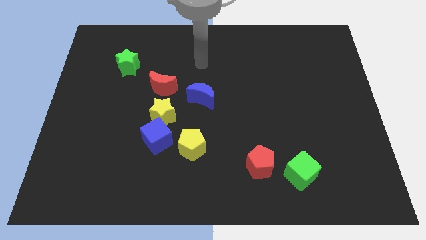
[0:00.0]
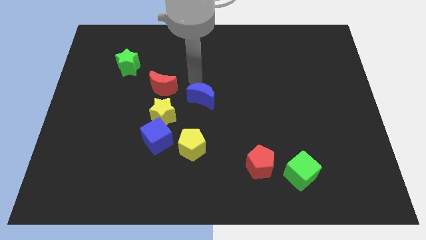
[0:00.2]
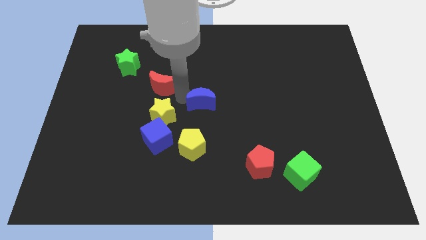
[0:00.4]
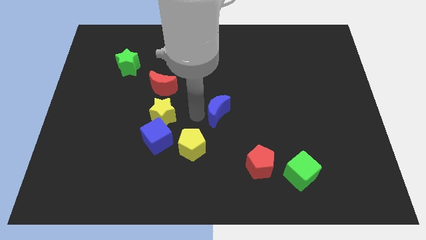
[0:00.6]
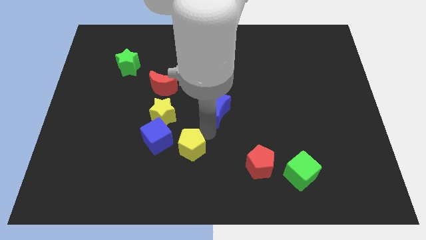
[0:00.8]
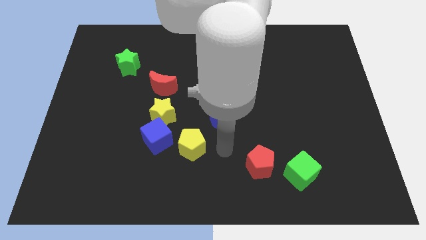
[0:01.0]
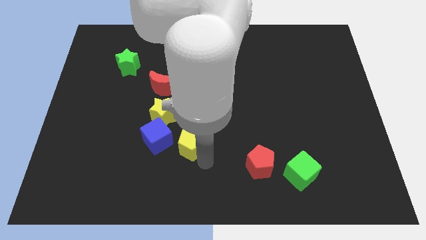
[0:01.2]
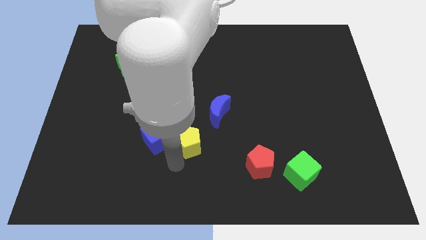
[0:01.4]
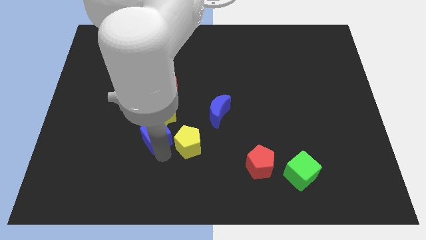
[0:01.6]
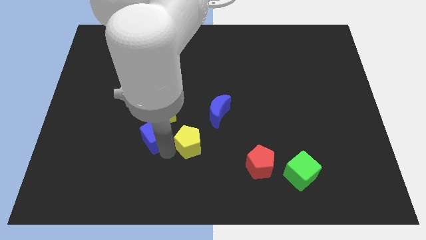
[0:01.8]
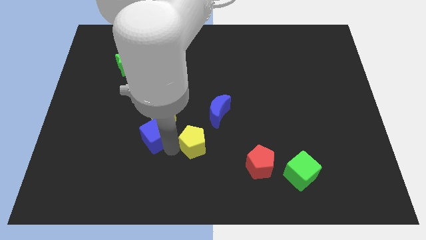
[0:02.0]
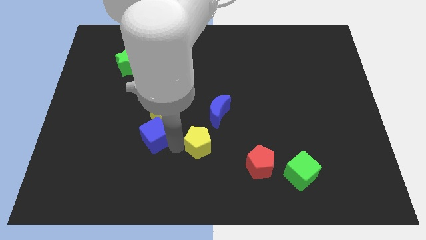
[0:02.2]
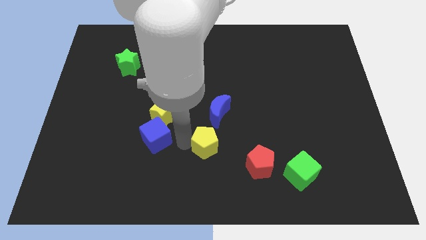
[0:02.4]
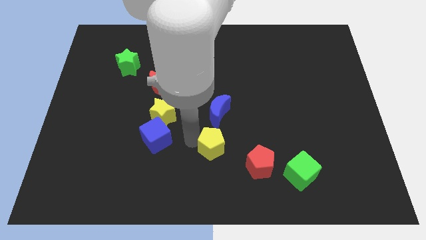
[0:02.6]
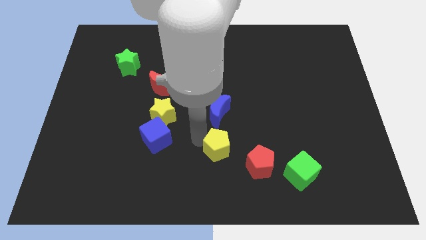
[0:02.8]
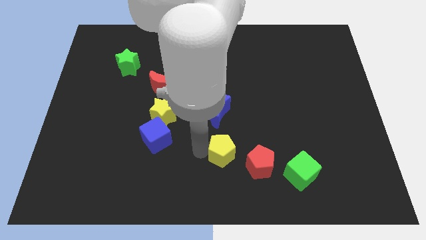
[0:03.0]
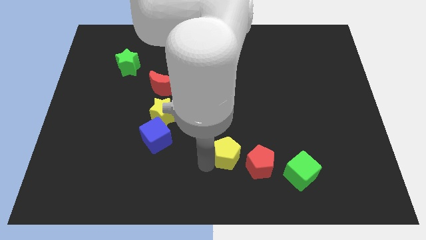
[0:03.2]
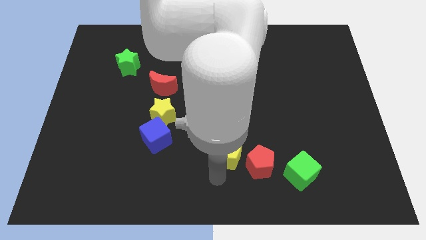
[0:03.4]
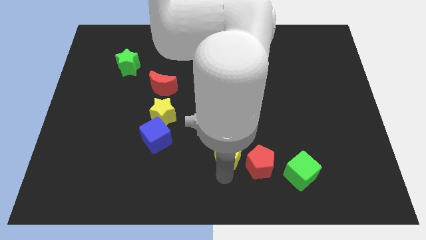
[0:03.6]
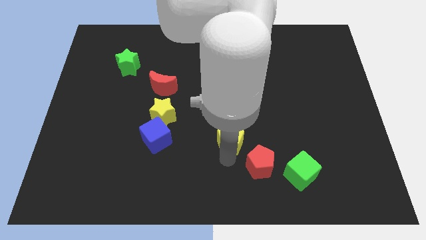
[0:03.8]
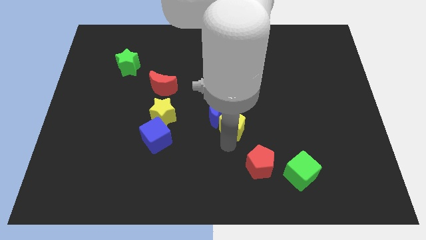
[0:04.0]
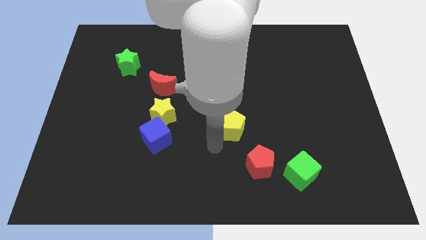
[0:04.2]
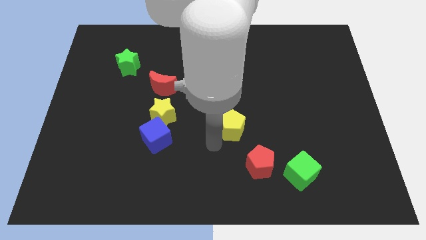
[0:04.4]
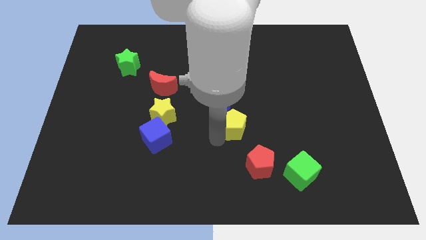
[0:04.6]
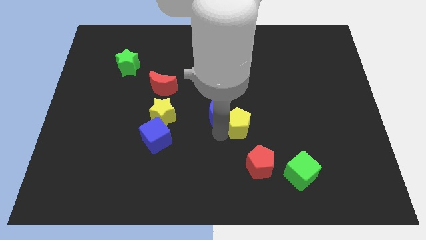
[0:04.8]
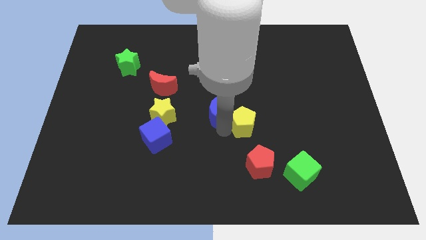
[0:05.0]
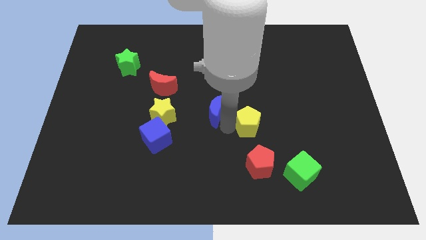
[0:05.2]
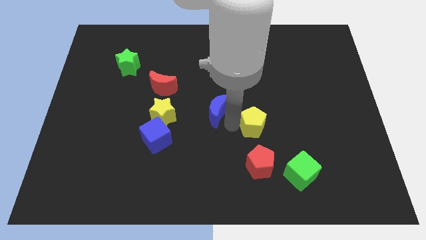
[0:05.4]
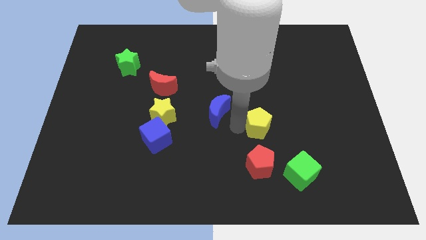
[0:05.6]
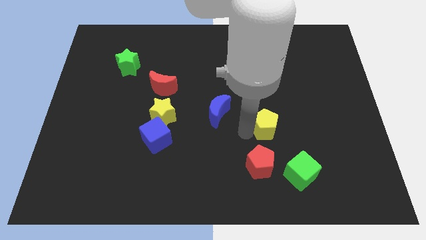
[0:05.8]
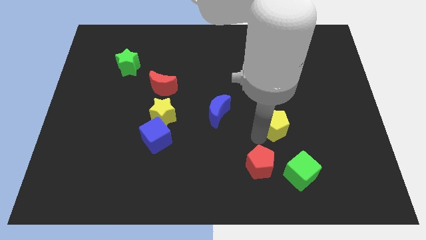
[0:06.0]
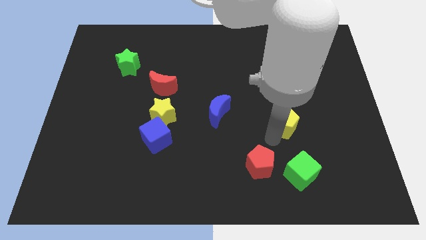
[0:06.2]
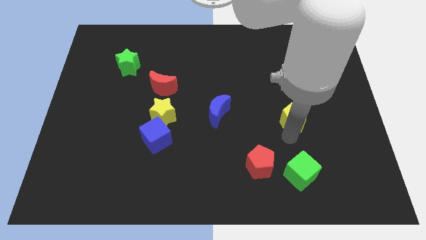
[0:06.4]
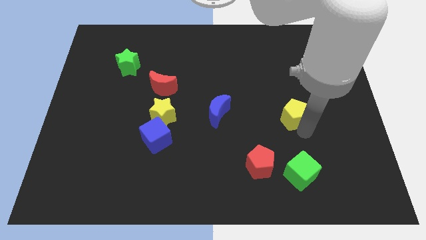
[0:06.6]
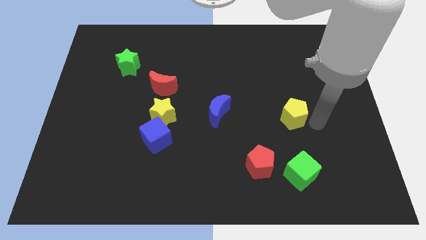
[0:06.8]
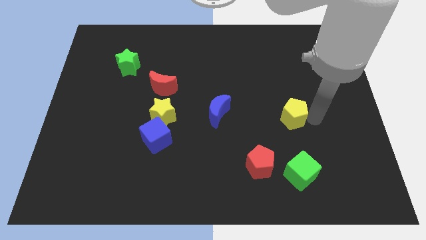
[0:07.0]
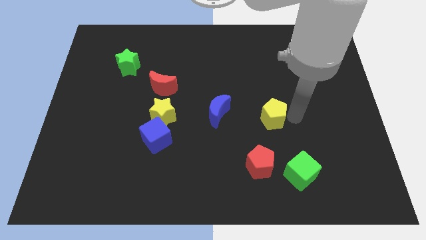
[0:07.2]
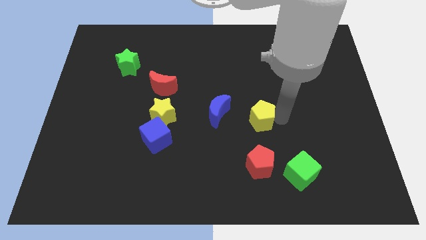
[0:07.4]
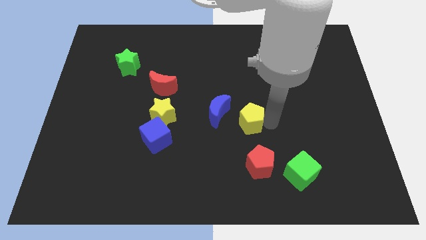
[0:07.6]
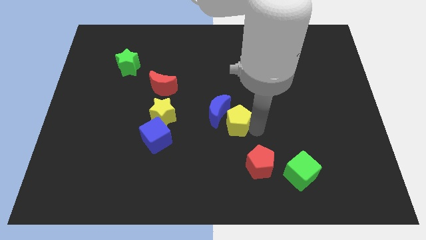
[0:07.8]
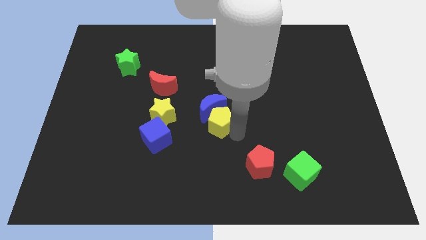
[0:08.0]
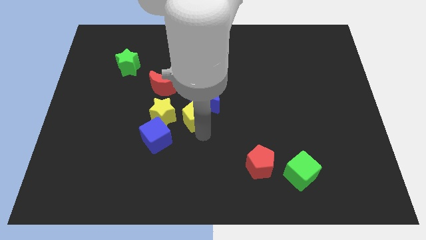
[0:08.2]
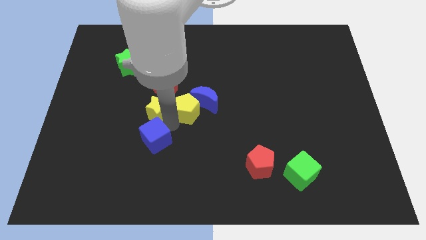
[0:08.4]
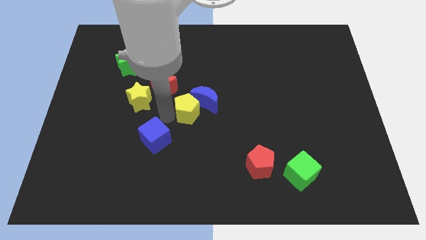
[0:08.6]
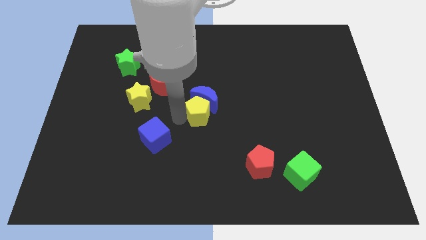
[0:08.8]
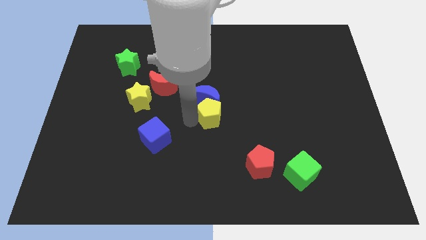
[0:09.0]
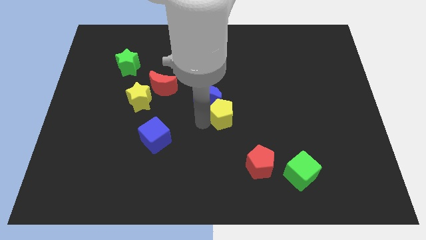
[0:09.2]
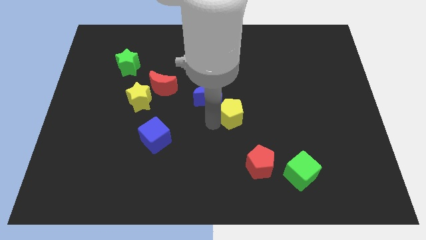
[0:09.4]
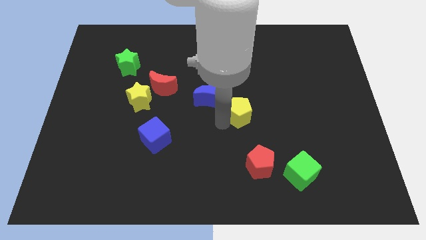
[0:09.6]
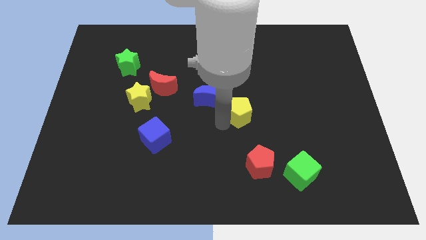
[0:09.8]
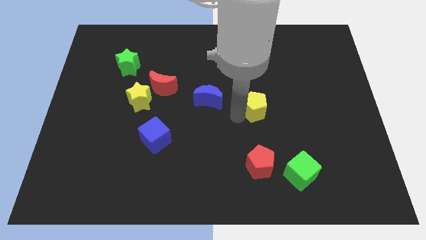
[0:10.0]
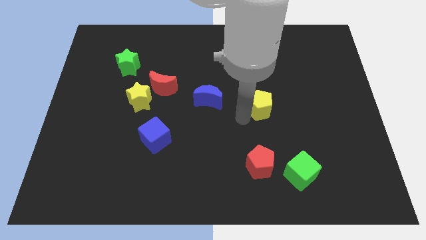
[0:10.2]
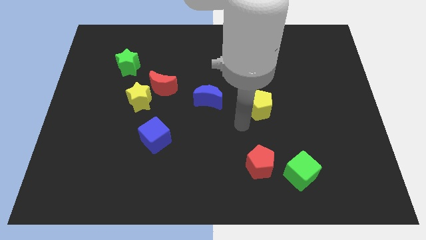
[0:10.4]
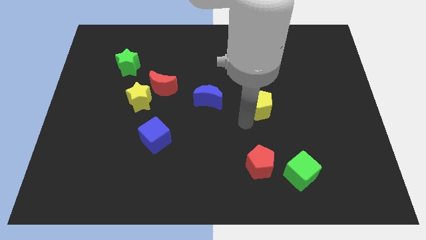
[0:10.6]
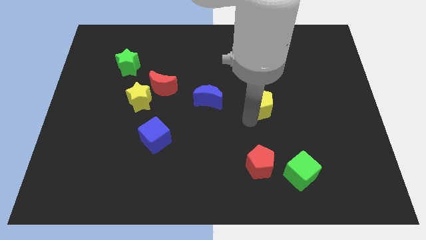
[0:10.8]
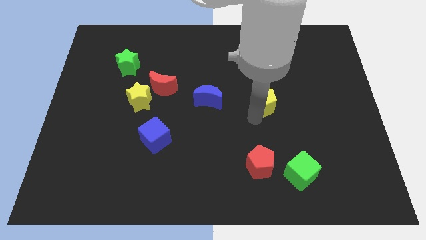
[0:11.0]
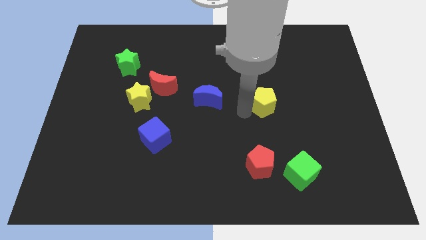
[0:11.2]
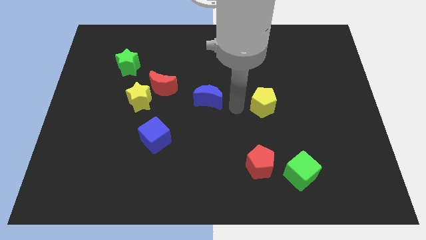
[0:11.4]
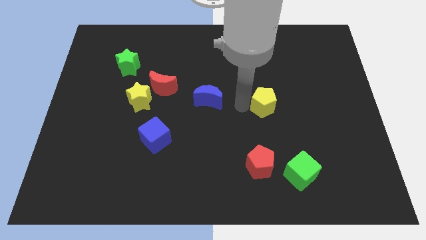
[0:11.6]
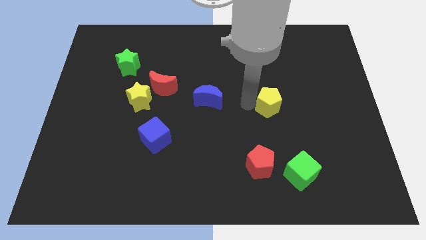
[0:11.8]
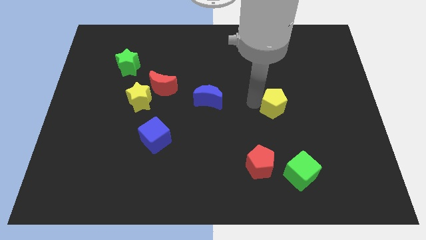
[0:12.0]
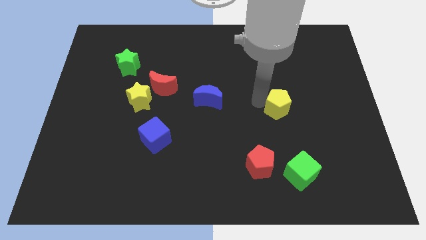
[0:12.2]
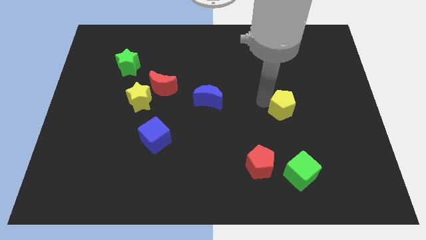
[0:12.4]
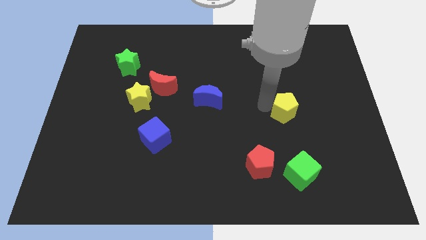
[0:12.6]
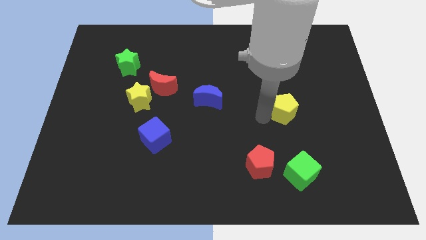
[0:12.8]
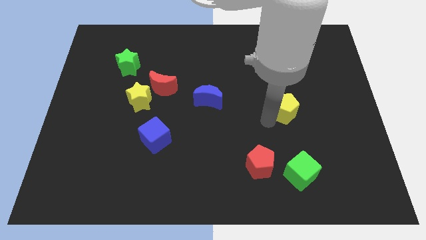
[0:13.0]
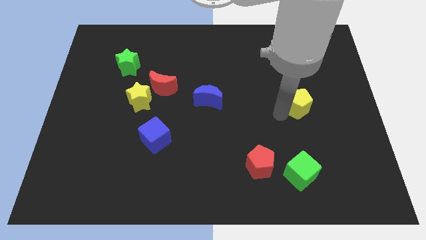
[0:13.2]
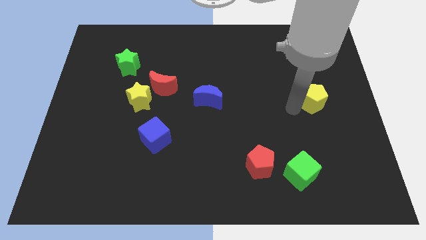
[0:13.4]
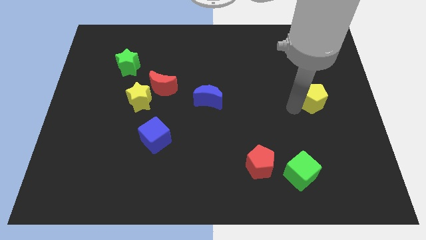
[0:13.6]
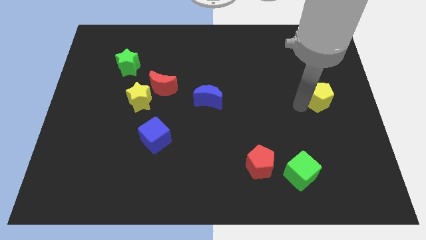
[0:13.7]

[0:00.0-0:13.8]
move the yellow pentagon to the right side of the board
